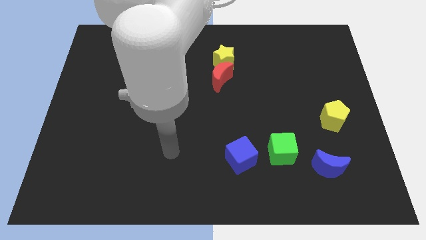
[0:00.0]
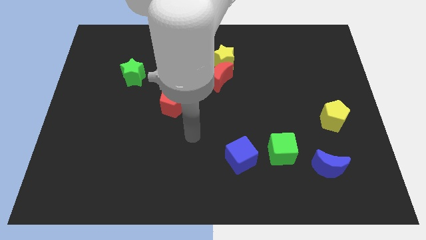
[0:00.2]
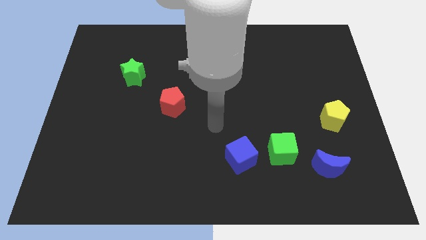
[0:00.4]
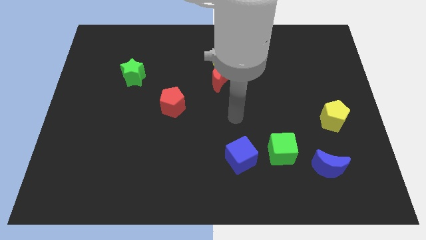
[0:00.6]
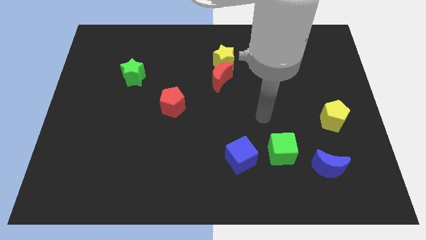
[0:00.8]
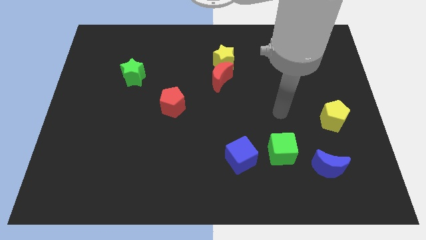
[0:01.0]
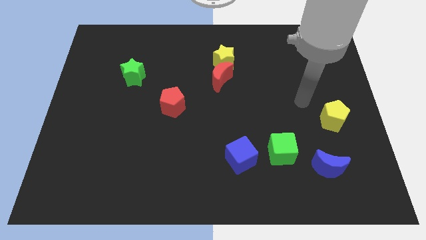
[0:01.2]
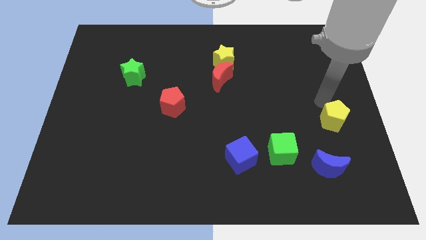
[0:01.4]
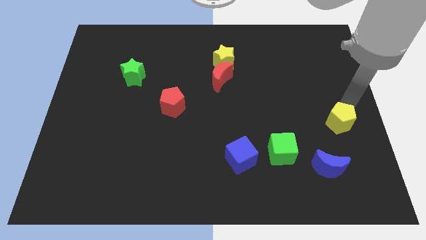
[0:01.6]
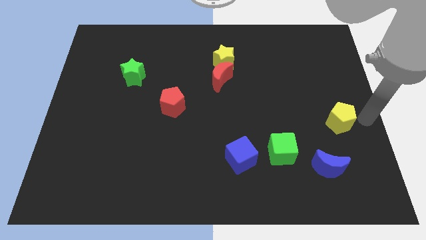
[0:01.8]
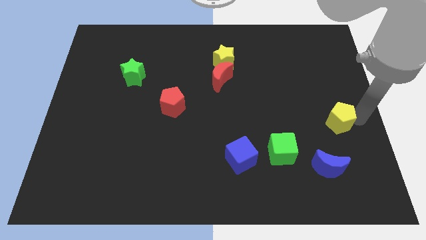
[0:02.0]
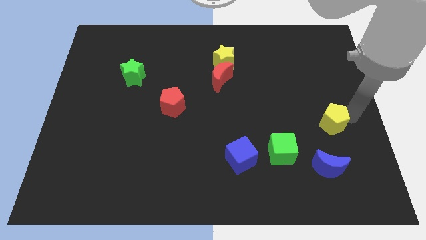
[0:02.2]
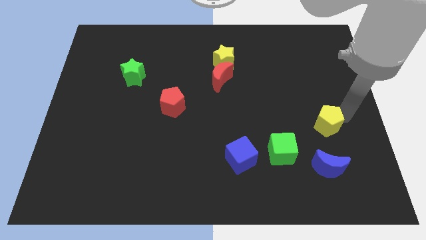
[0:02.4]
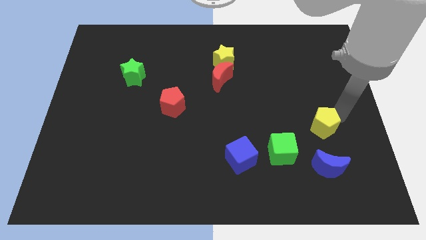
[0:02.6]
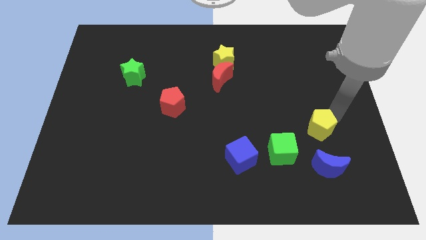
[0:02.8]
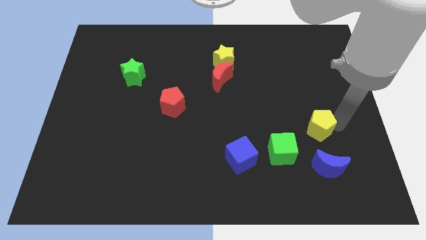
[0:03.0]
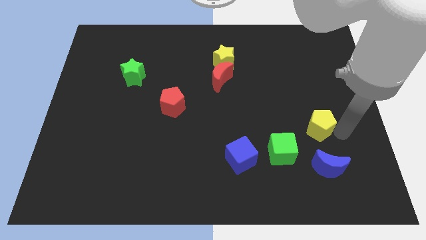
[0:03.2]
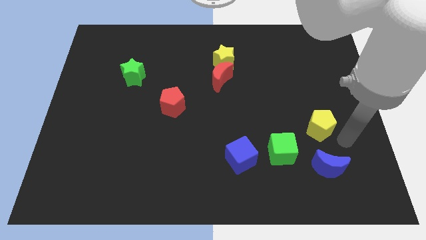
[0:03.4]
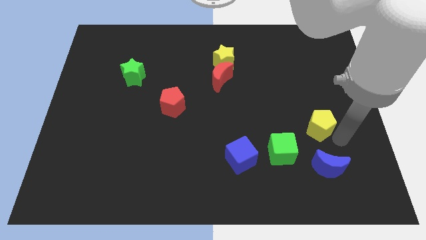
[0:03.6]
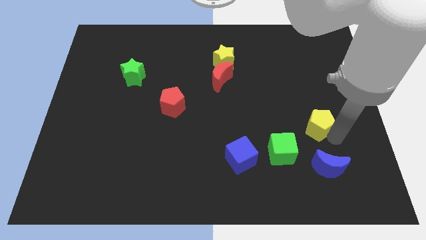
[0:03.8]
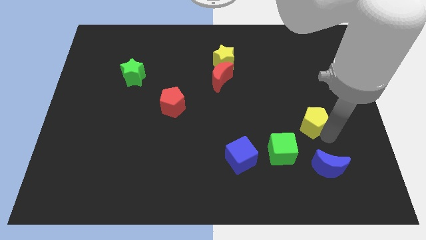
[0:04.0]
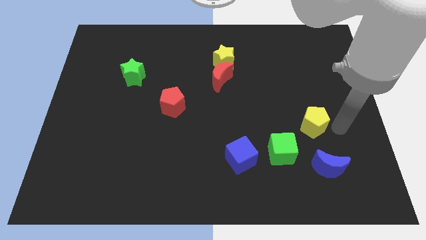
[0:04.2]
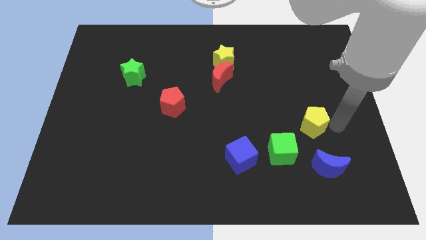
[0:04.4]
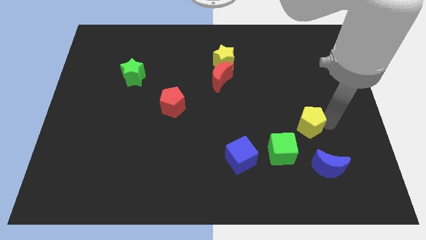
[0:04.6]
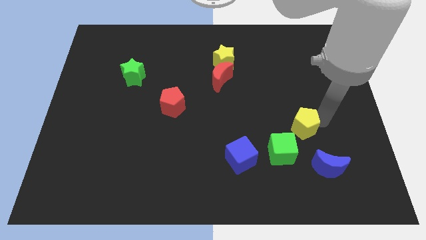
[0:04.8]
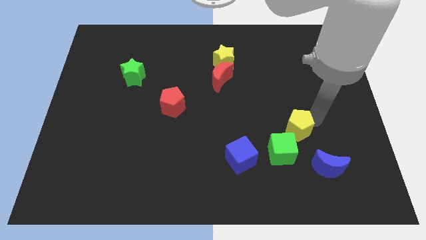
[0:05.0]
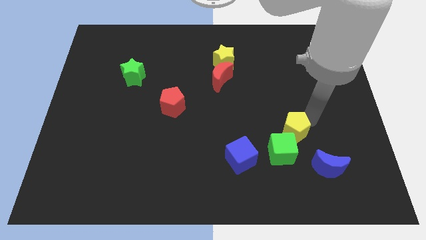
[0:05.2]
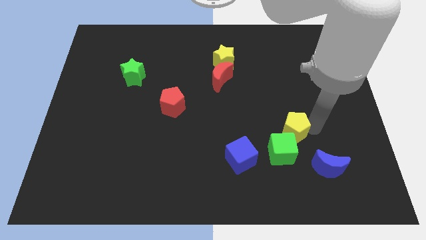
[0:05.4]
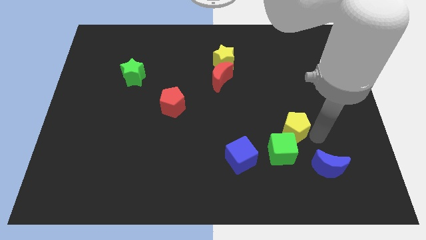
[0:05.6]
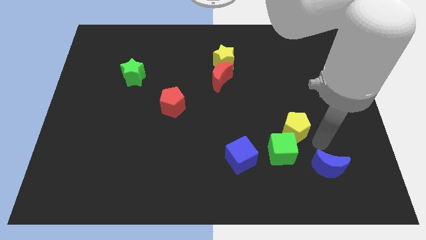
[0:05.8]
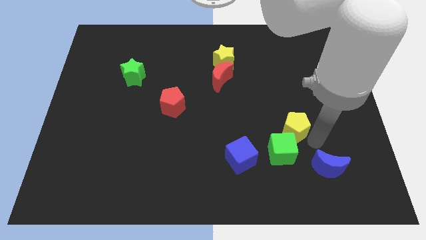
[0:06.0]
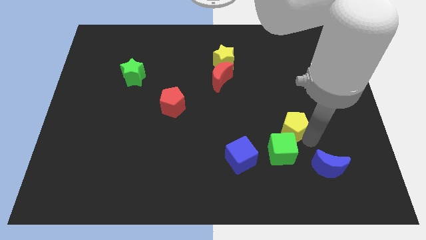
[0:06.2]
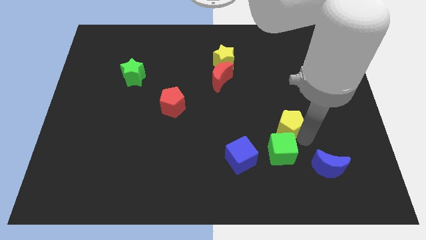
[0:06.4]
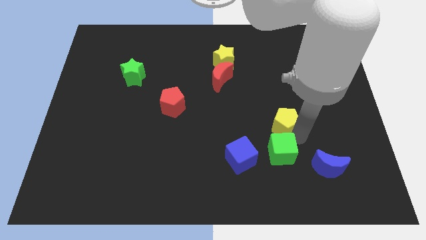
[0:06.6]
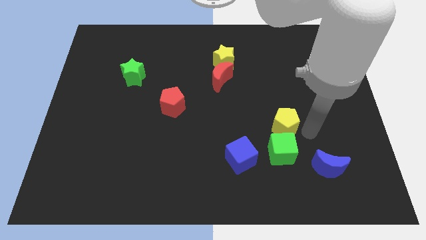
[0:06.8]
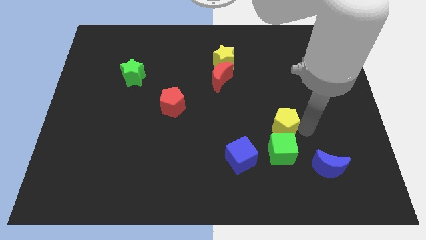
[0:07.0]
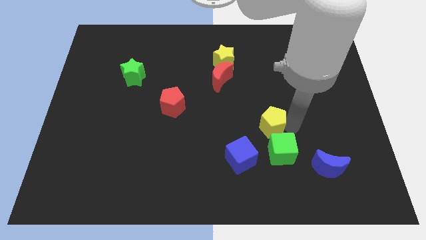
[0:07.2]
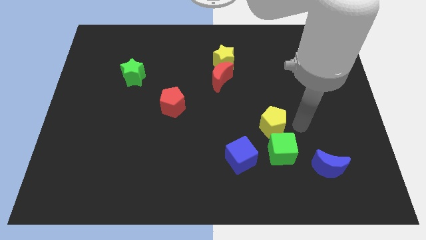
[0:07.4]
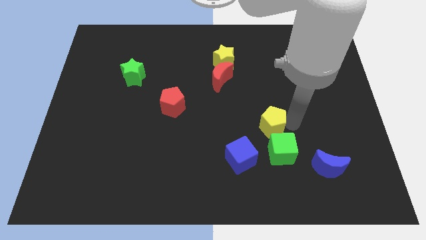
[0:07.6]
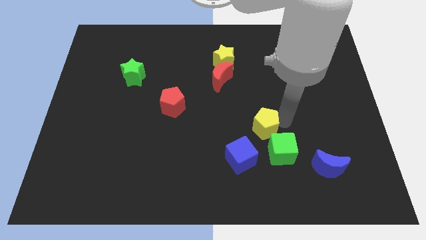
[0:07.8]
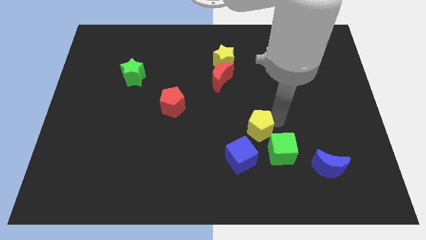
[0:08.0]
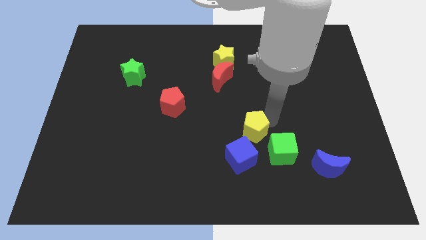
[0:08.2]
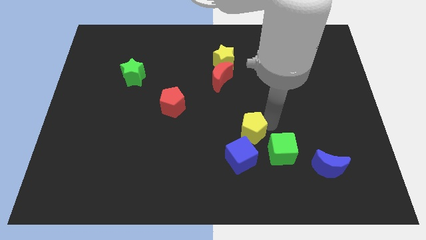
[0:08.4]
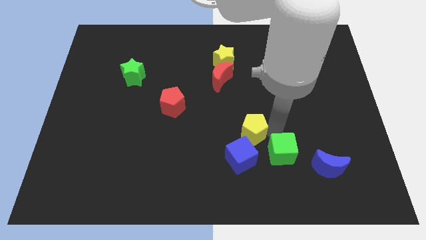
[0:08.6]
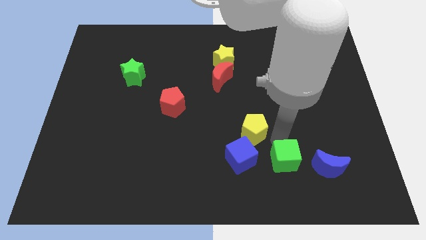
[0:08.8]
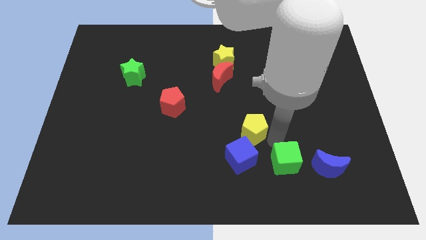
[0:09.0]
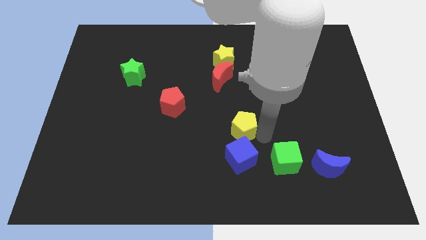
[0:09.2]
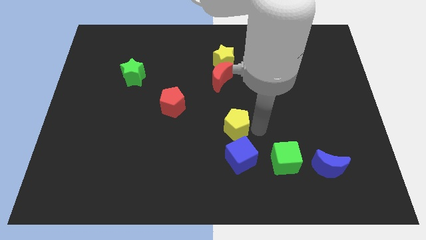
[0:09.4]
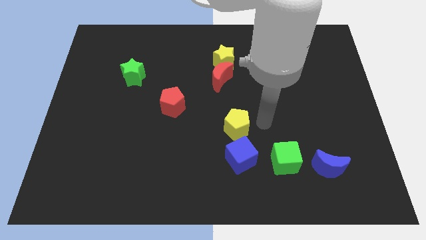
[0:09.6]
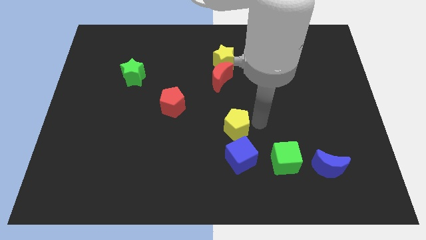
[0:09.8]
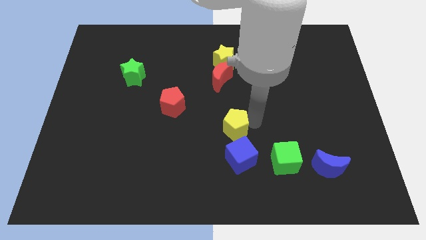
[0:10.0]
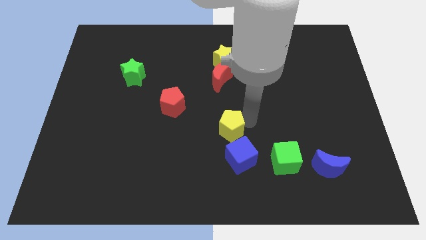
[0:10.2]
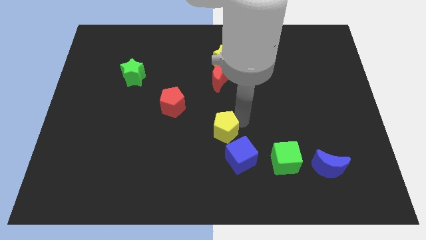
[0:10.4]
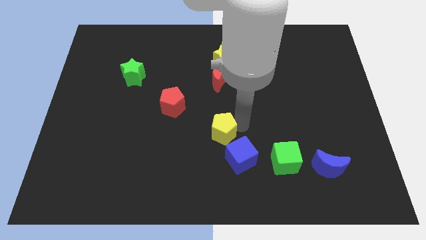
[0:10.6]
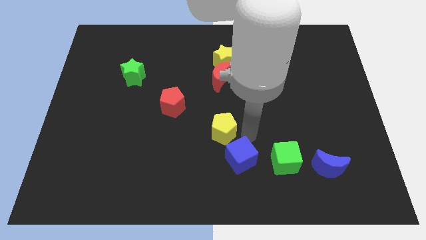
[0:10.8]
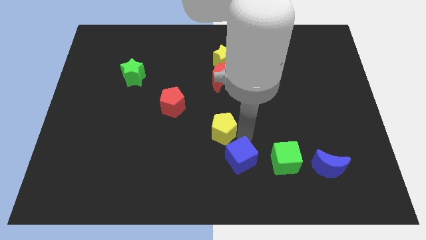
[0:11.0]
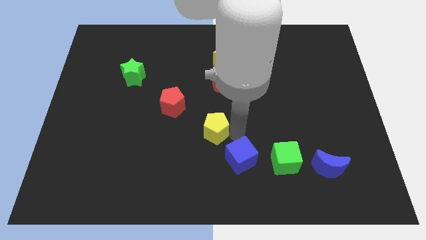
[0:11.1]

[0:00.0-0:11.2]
put the yellow pentagon diagonally down and to the right of the red pentagon

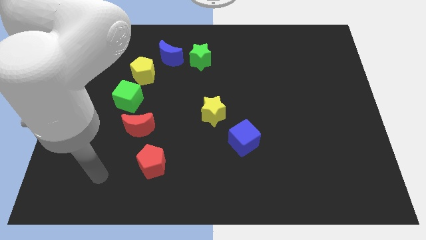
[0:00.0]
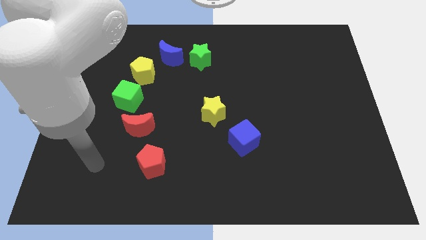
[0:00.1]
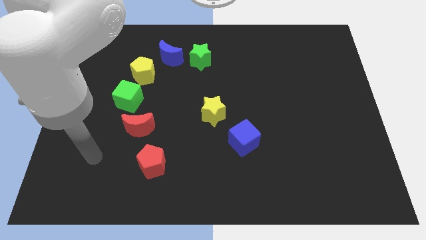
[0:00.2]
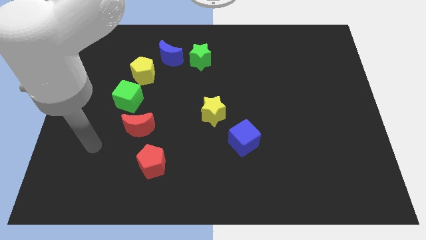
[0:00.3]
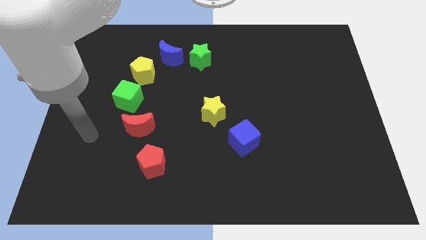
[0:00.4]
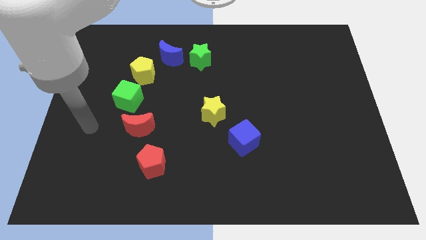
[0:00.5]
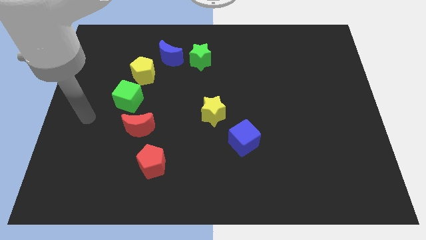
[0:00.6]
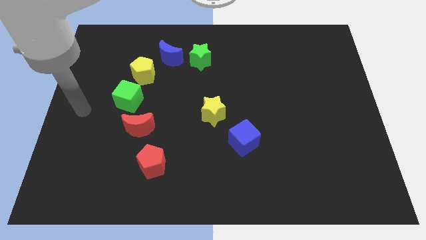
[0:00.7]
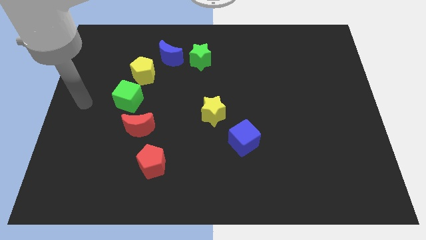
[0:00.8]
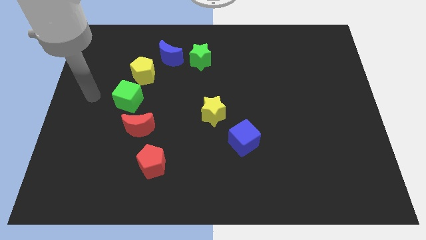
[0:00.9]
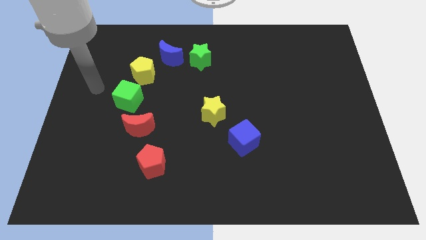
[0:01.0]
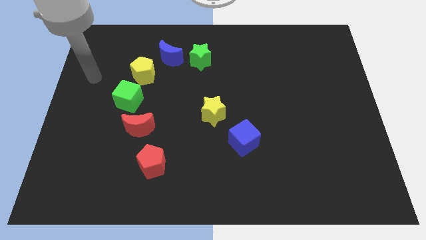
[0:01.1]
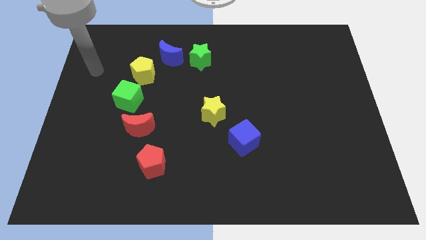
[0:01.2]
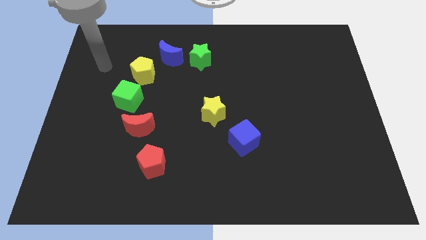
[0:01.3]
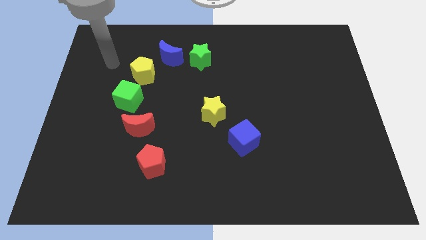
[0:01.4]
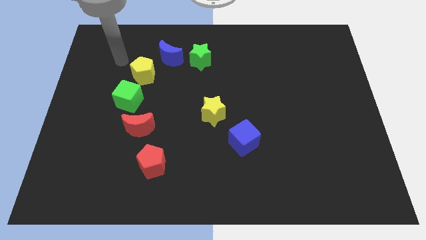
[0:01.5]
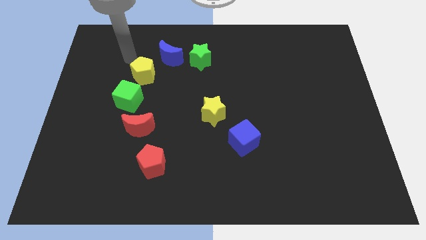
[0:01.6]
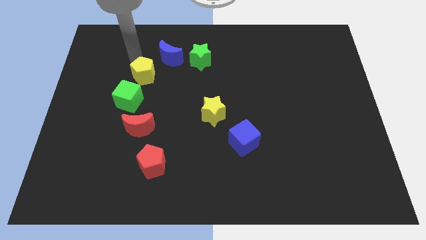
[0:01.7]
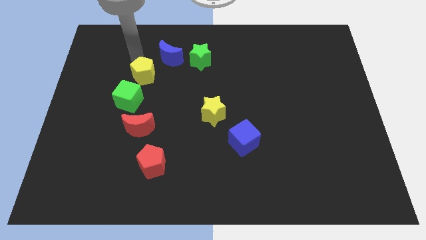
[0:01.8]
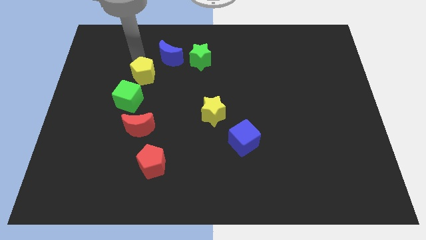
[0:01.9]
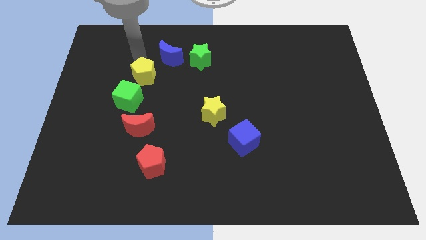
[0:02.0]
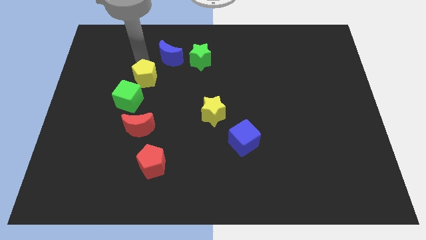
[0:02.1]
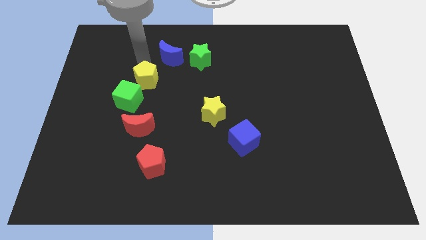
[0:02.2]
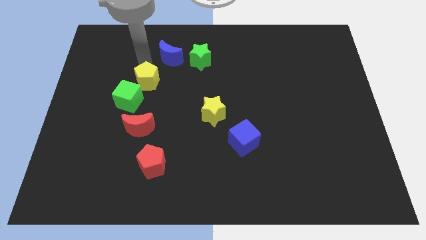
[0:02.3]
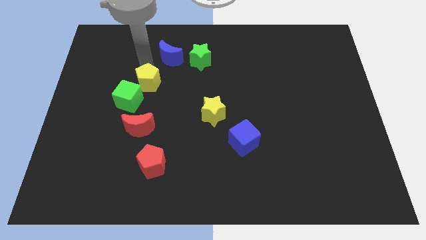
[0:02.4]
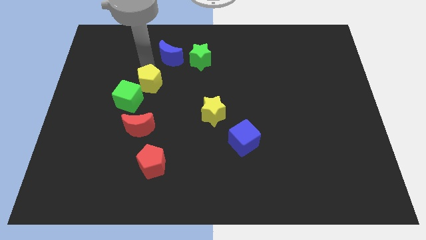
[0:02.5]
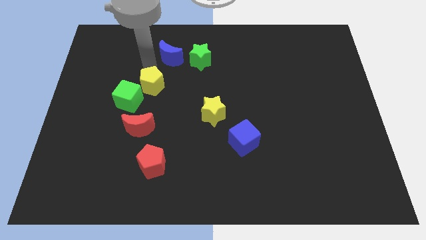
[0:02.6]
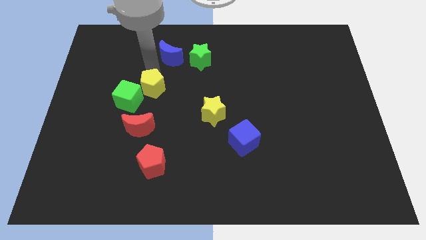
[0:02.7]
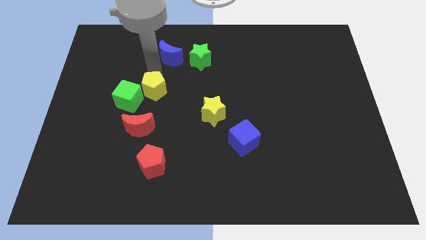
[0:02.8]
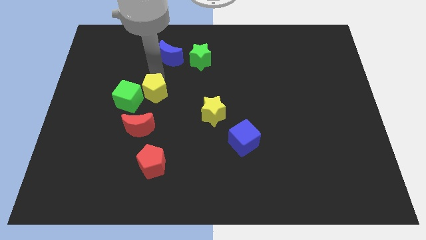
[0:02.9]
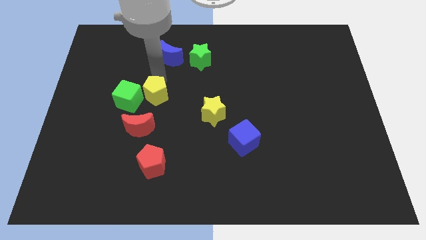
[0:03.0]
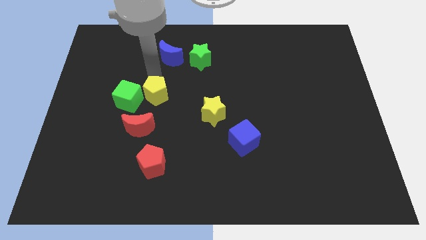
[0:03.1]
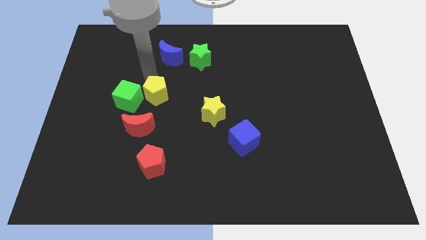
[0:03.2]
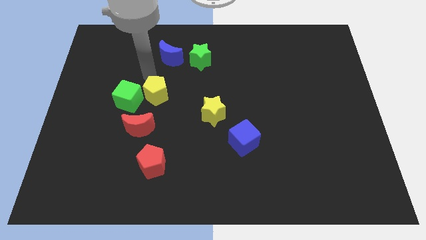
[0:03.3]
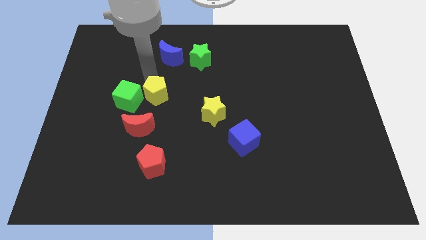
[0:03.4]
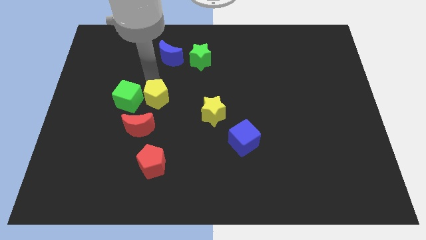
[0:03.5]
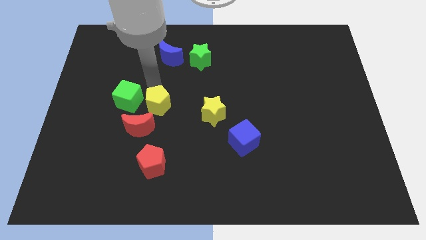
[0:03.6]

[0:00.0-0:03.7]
move the yellow pentagon to the left side of the yellow star
